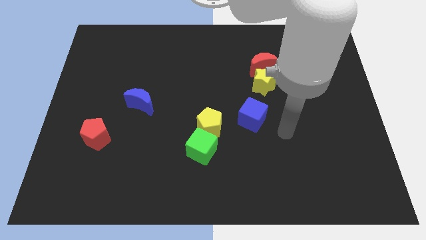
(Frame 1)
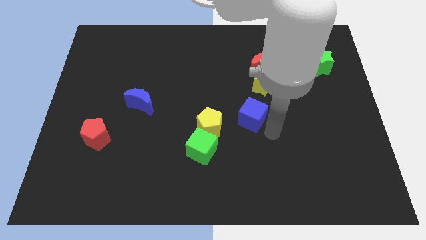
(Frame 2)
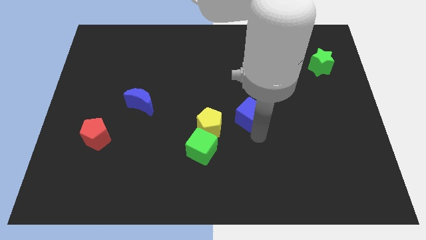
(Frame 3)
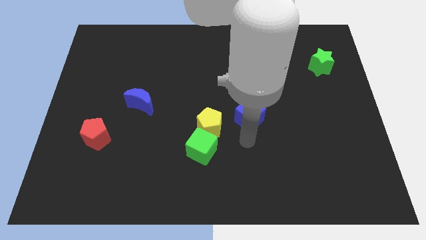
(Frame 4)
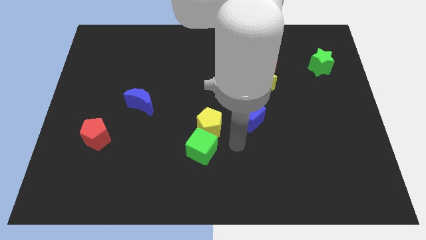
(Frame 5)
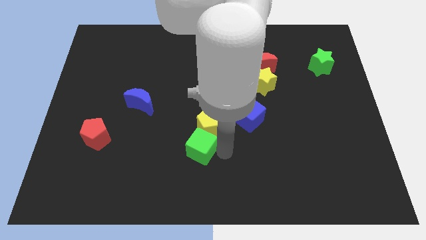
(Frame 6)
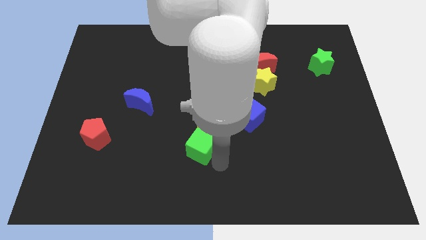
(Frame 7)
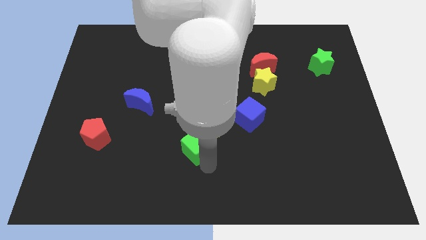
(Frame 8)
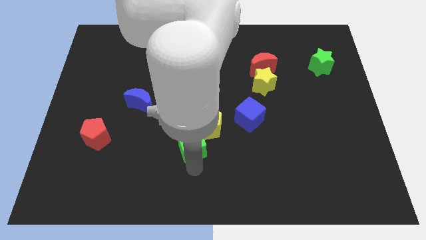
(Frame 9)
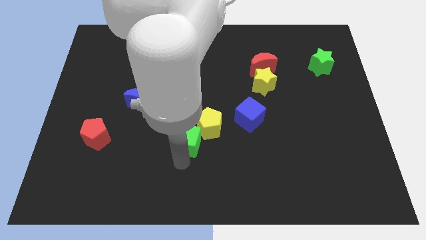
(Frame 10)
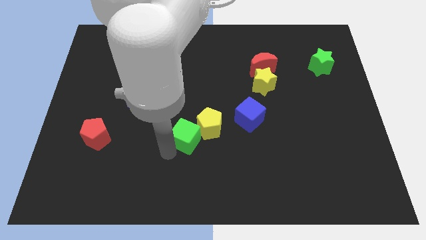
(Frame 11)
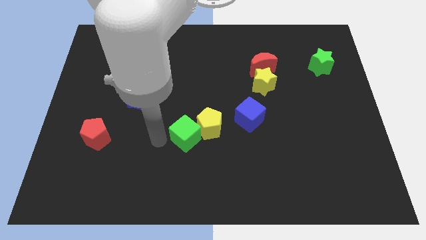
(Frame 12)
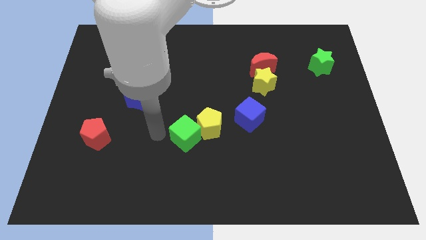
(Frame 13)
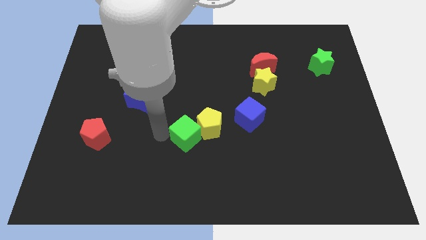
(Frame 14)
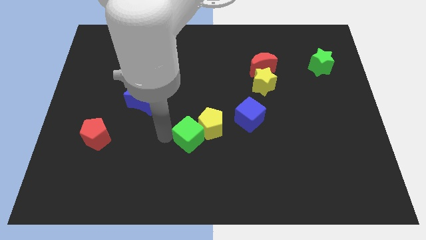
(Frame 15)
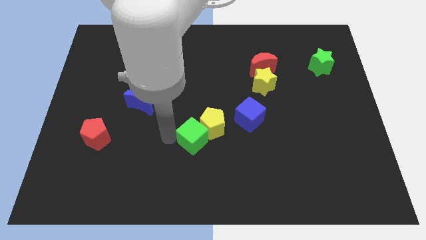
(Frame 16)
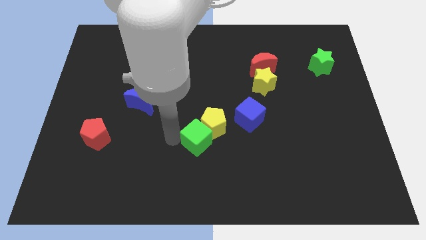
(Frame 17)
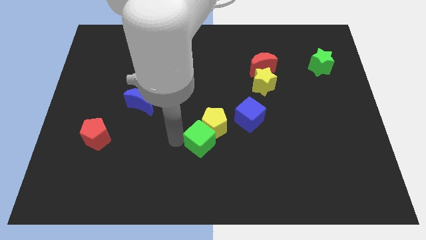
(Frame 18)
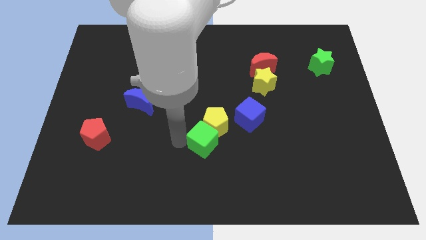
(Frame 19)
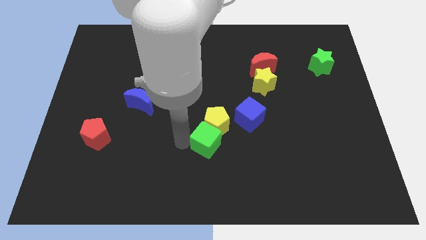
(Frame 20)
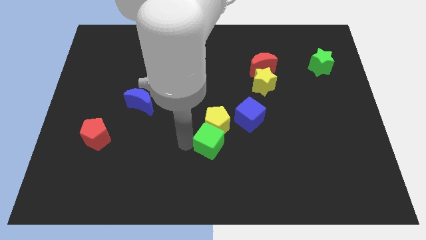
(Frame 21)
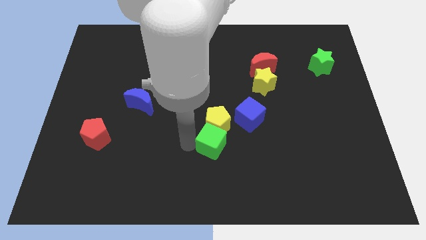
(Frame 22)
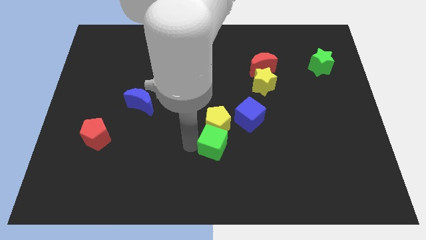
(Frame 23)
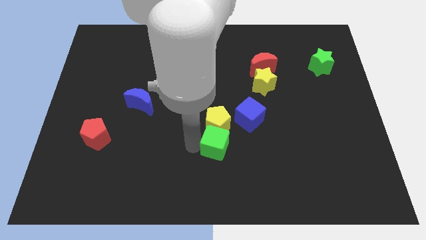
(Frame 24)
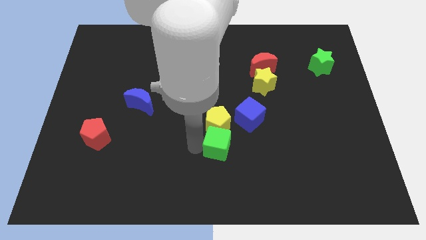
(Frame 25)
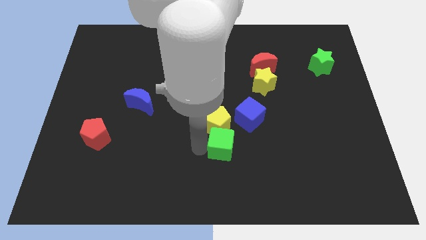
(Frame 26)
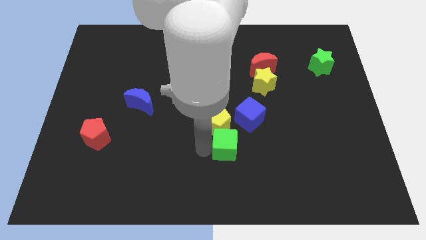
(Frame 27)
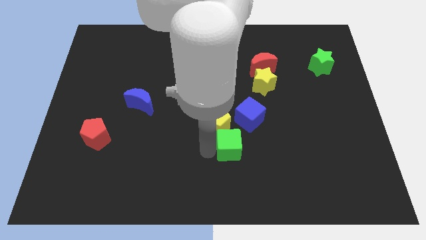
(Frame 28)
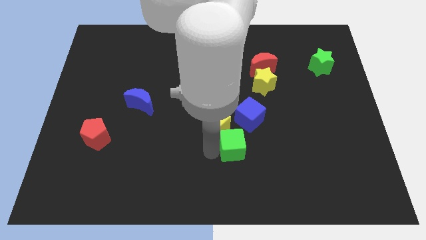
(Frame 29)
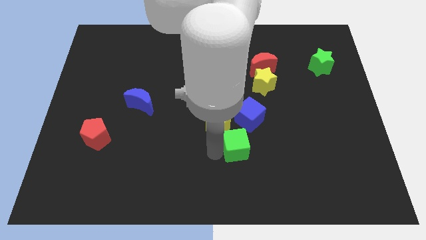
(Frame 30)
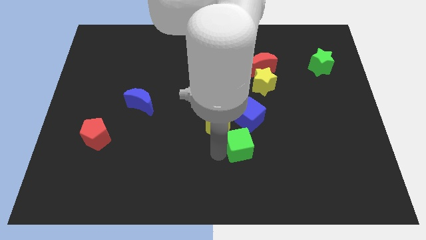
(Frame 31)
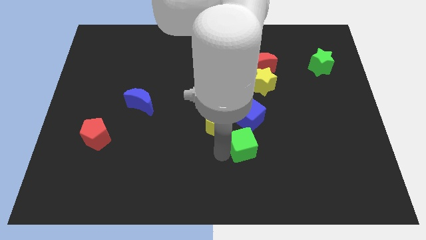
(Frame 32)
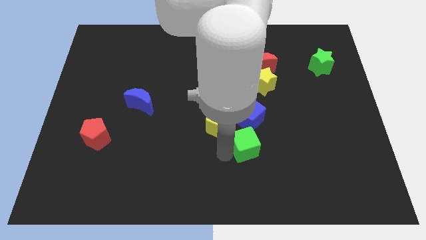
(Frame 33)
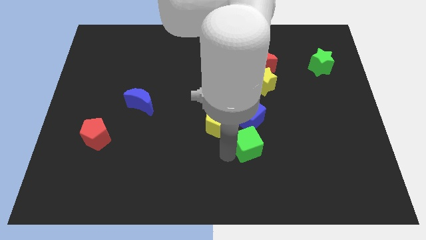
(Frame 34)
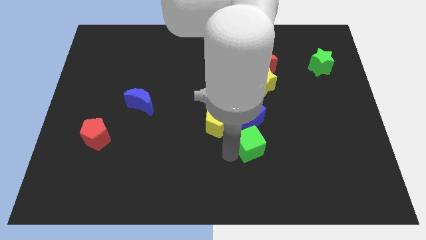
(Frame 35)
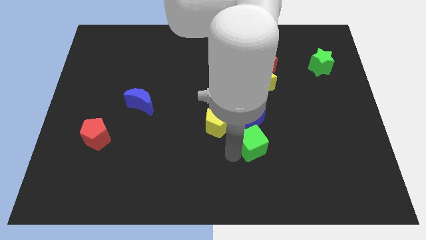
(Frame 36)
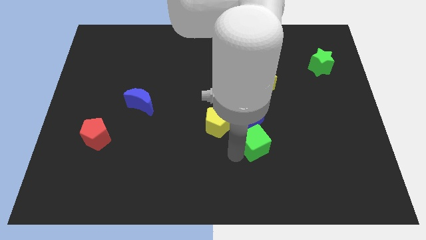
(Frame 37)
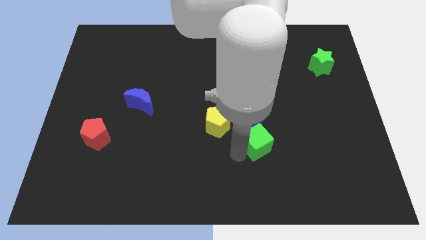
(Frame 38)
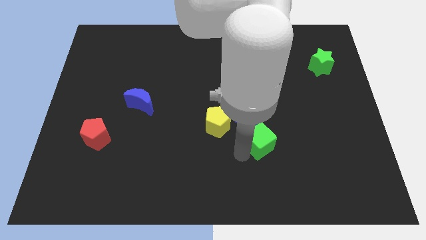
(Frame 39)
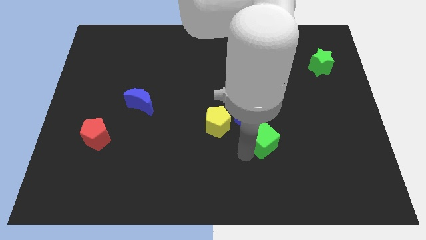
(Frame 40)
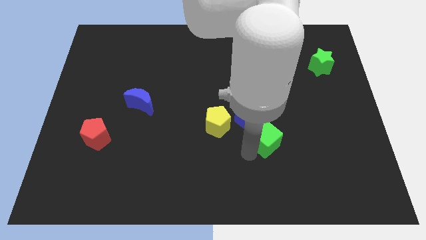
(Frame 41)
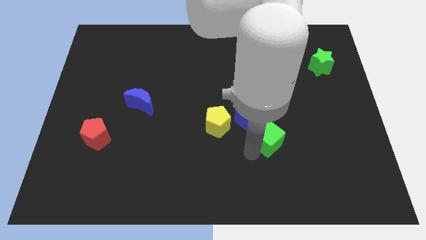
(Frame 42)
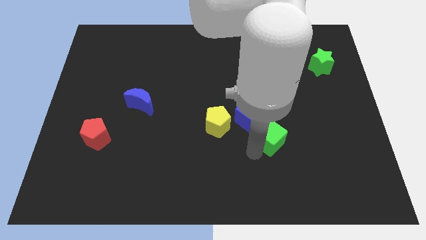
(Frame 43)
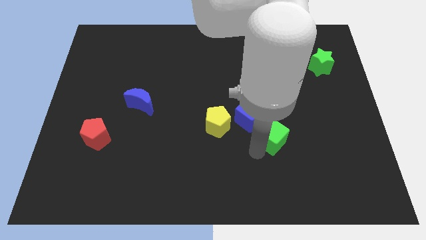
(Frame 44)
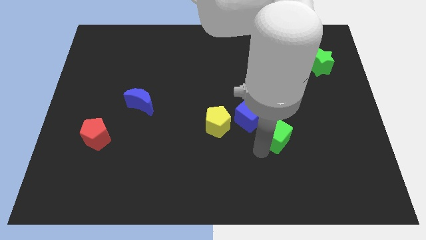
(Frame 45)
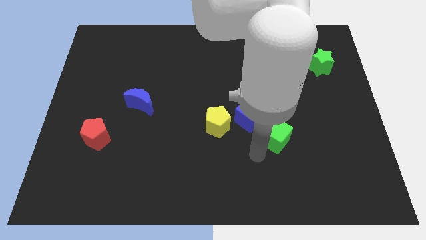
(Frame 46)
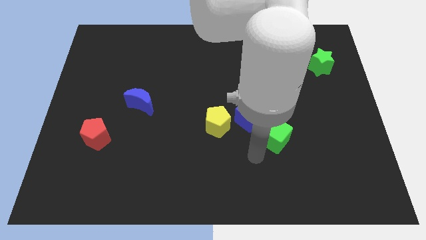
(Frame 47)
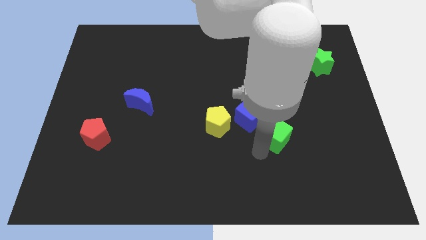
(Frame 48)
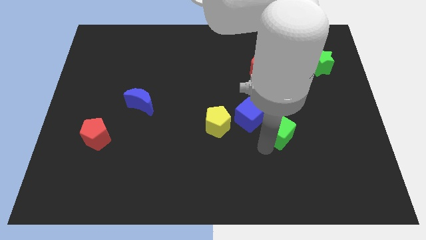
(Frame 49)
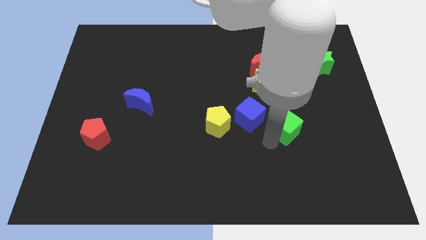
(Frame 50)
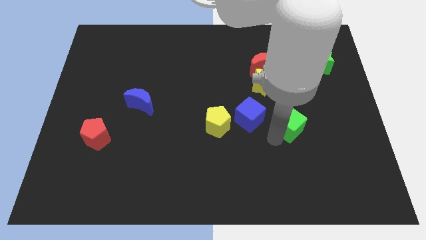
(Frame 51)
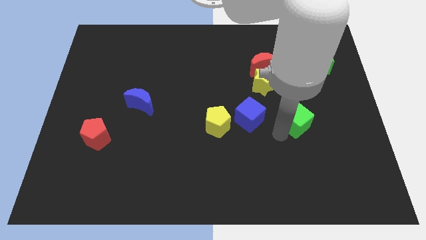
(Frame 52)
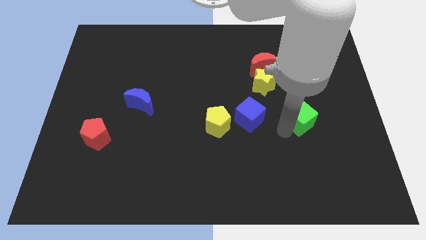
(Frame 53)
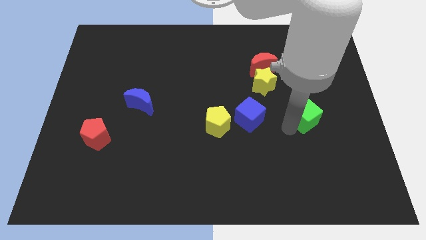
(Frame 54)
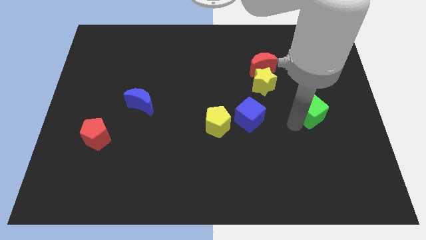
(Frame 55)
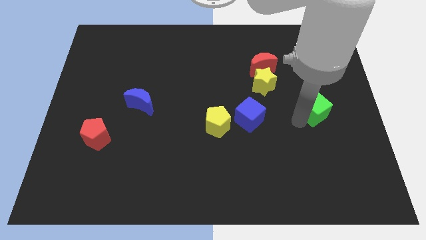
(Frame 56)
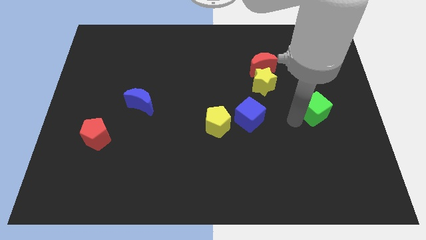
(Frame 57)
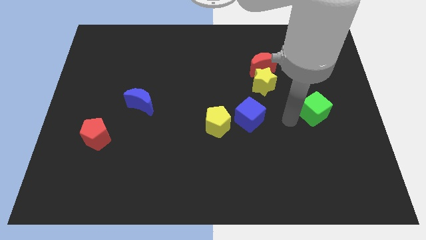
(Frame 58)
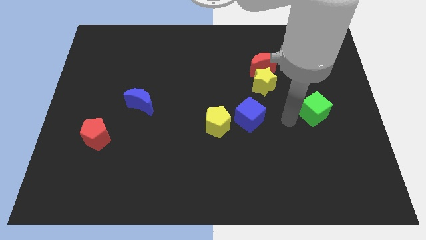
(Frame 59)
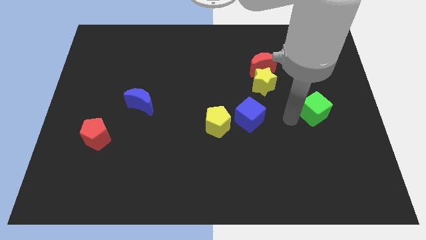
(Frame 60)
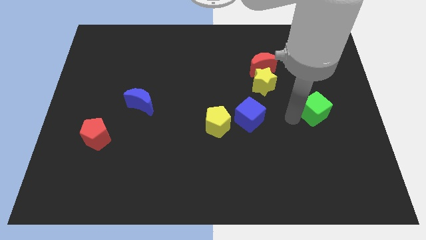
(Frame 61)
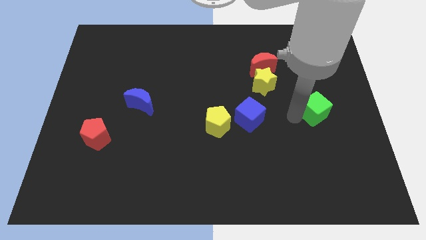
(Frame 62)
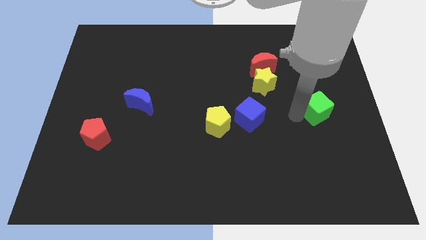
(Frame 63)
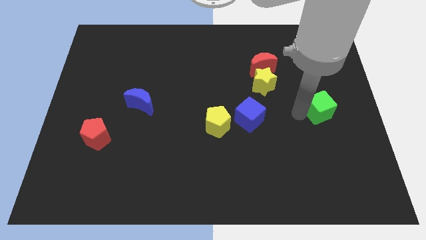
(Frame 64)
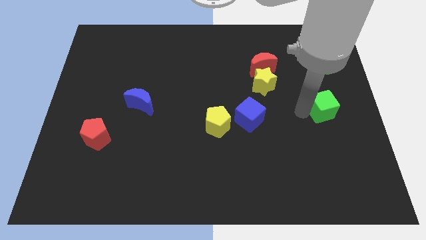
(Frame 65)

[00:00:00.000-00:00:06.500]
put the green cube to the right side of the board
